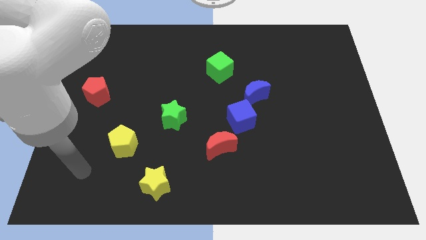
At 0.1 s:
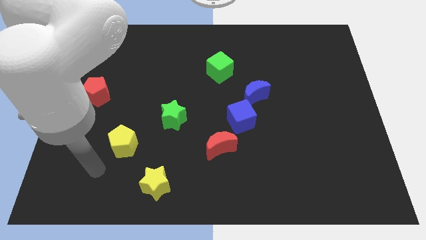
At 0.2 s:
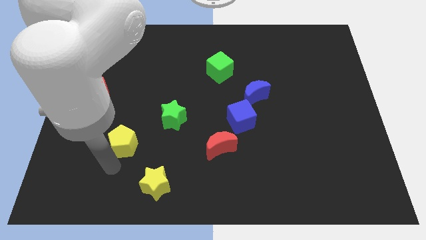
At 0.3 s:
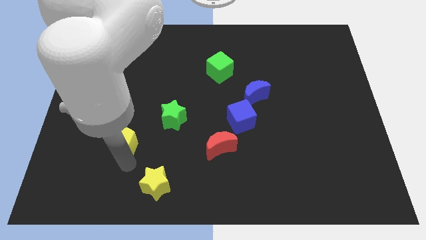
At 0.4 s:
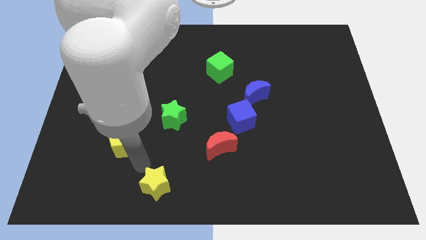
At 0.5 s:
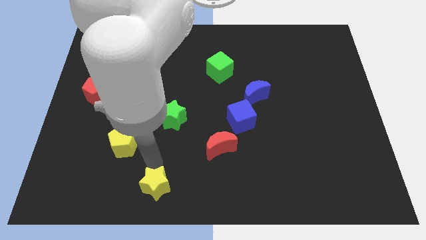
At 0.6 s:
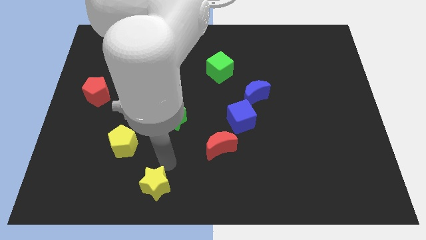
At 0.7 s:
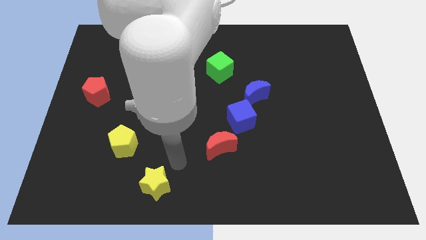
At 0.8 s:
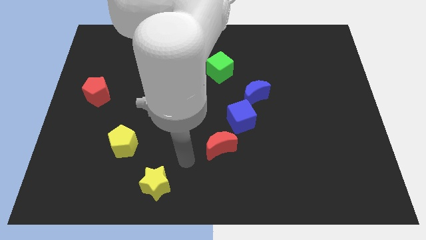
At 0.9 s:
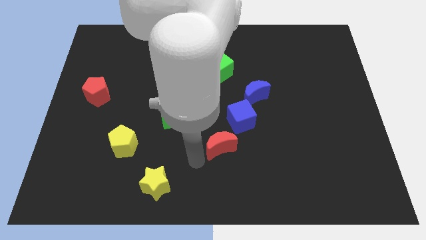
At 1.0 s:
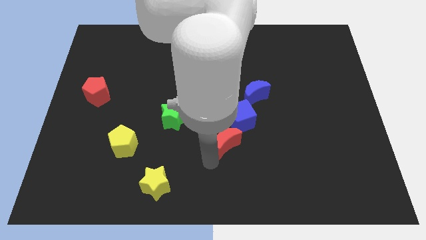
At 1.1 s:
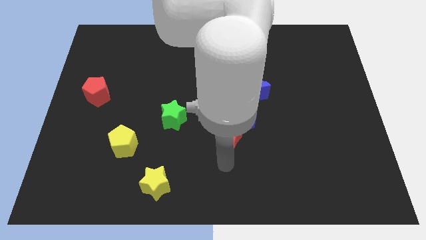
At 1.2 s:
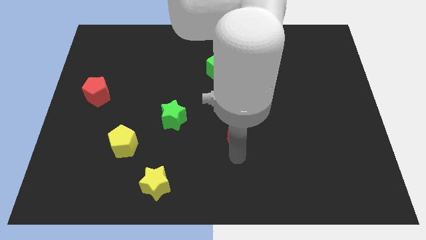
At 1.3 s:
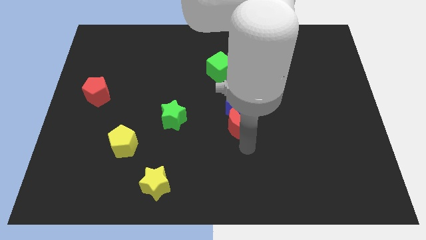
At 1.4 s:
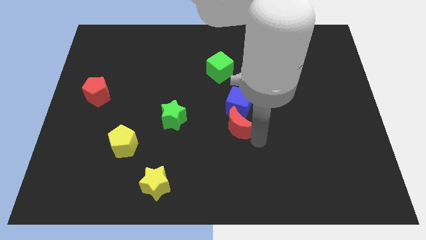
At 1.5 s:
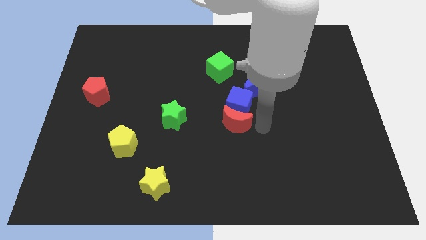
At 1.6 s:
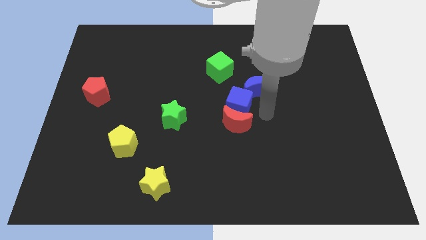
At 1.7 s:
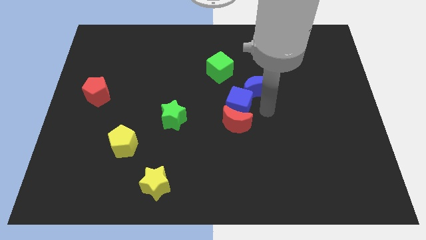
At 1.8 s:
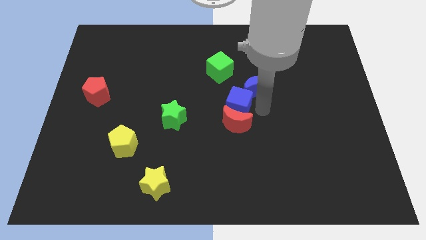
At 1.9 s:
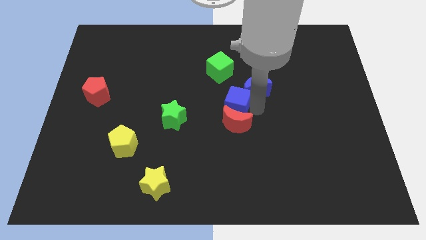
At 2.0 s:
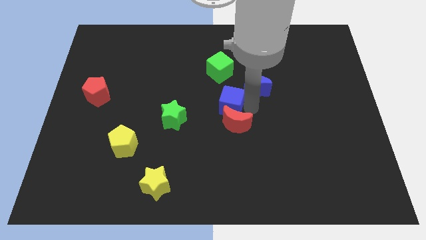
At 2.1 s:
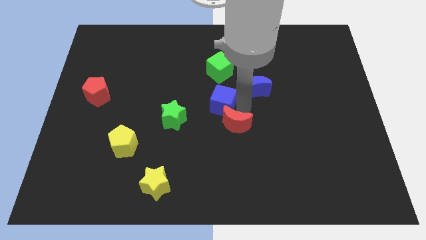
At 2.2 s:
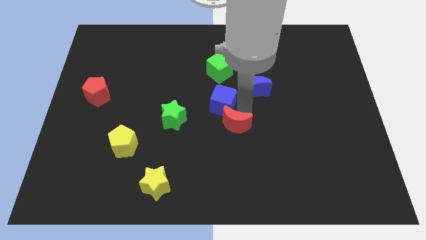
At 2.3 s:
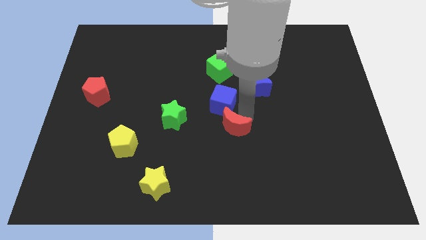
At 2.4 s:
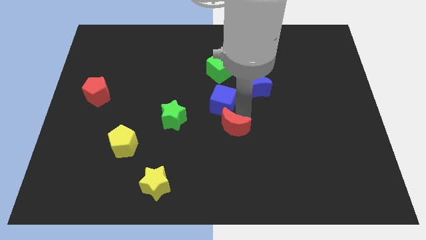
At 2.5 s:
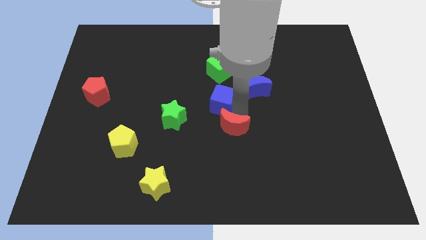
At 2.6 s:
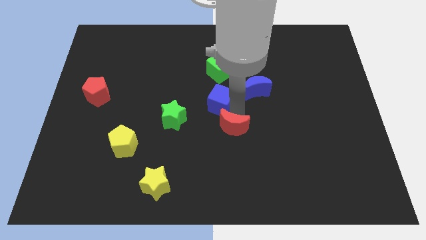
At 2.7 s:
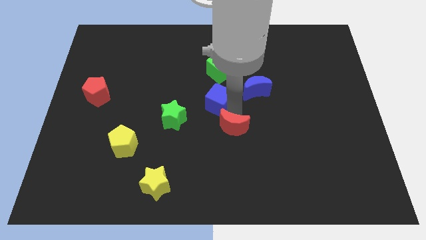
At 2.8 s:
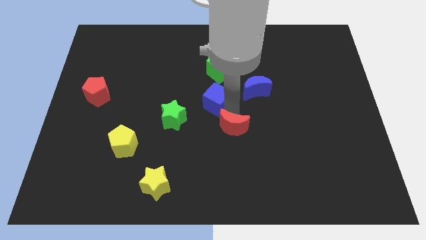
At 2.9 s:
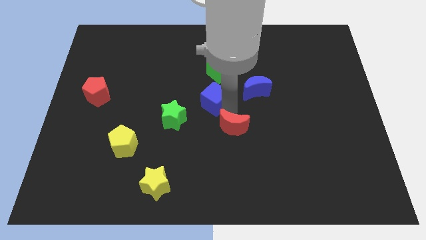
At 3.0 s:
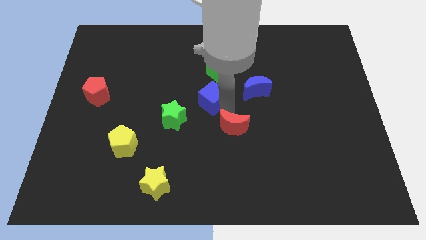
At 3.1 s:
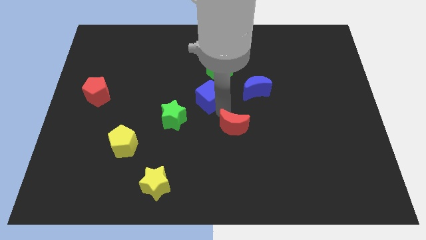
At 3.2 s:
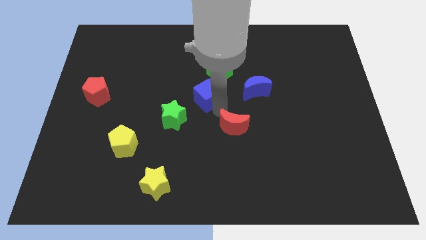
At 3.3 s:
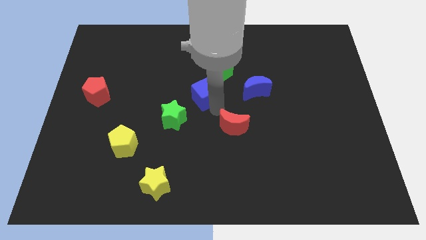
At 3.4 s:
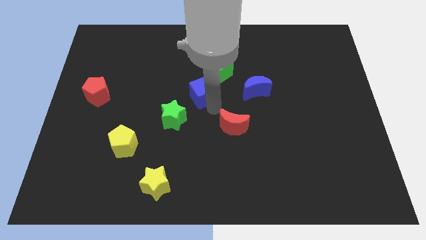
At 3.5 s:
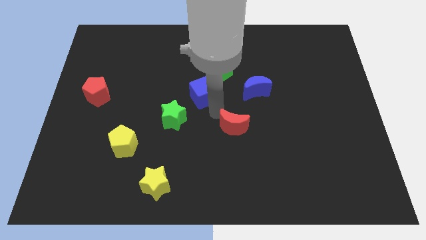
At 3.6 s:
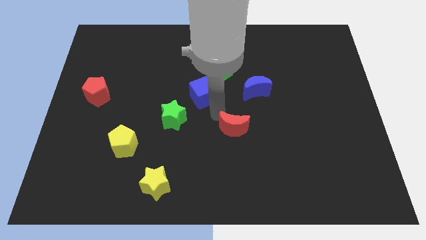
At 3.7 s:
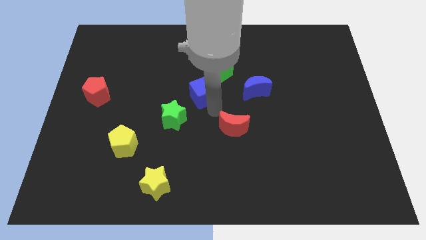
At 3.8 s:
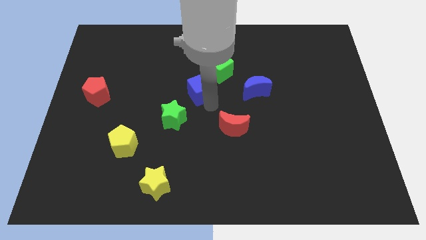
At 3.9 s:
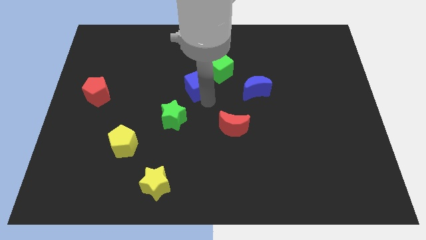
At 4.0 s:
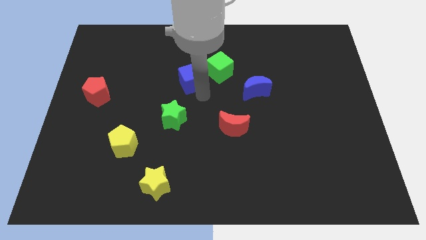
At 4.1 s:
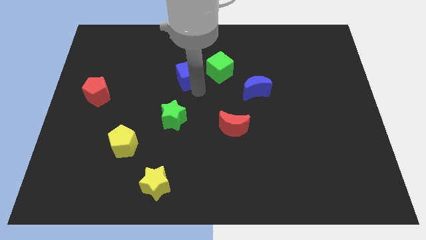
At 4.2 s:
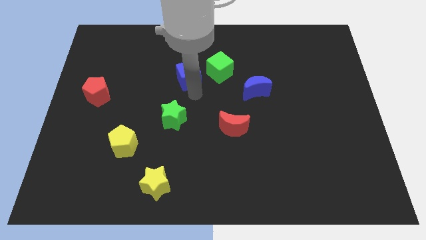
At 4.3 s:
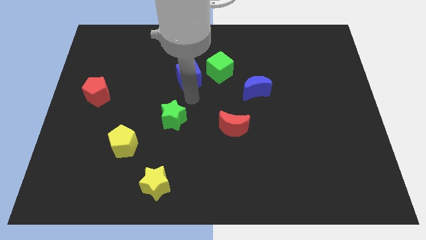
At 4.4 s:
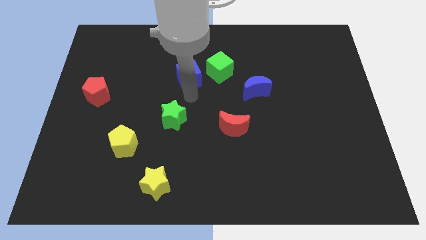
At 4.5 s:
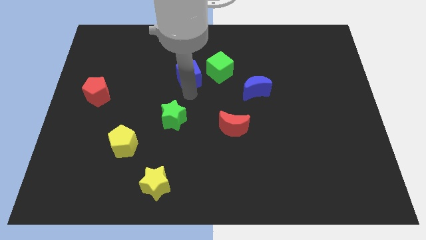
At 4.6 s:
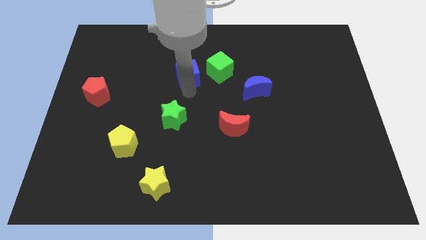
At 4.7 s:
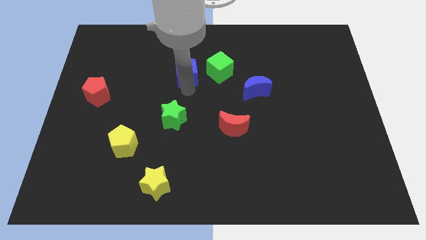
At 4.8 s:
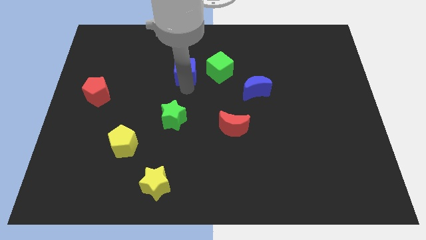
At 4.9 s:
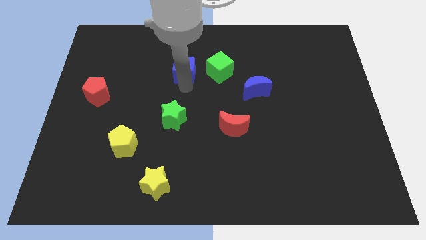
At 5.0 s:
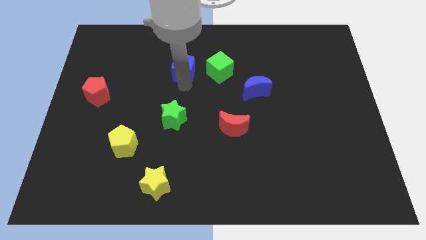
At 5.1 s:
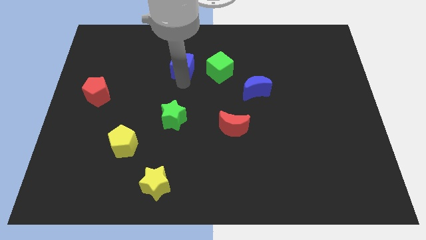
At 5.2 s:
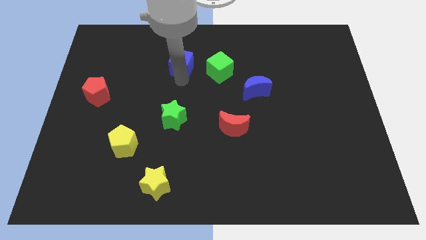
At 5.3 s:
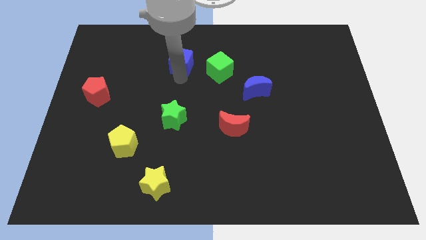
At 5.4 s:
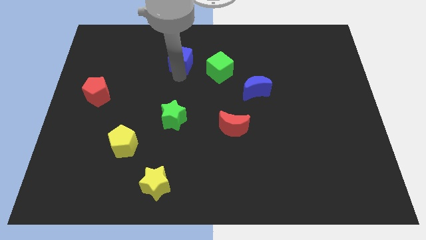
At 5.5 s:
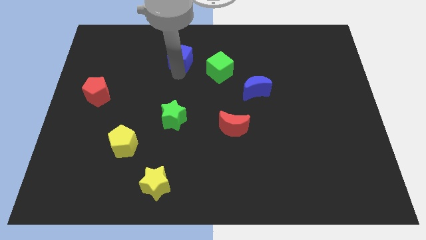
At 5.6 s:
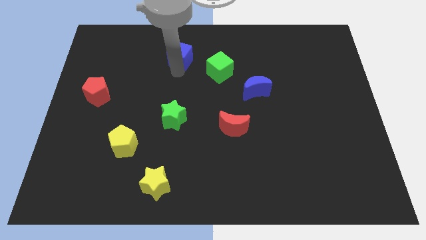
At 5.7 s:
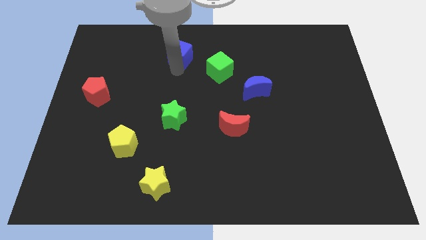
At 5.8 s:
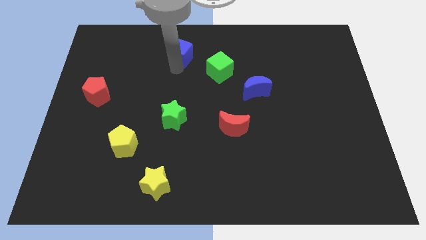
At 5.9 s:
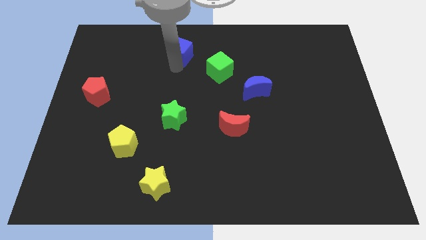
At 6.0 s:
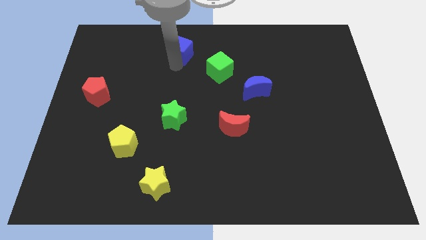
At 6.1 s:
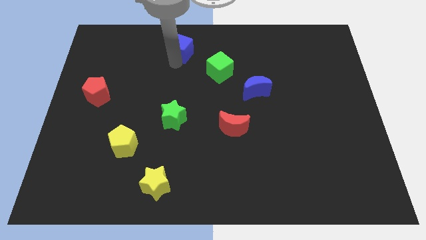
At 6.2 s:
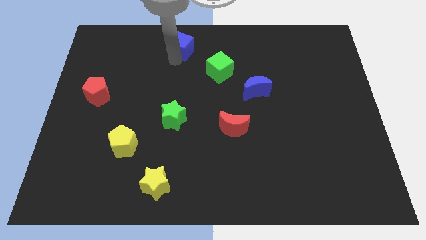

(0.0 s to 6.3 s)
move the blue cube to the towards your base
